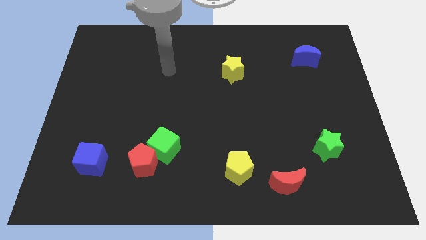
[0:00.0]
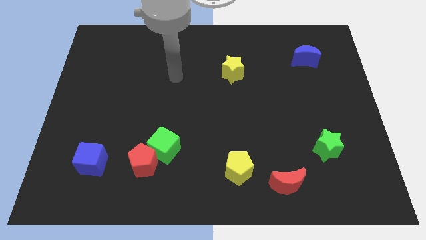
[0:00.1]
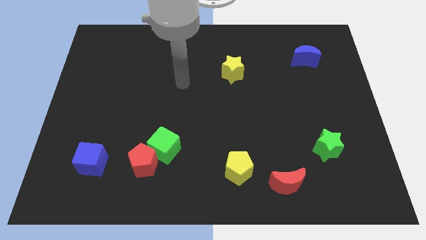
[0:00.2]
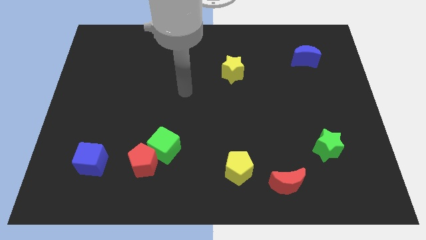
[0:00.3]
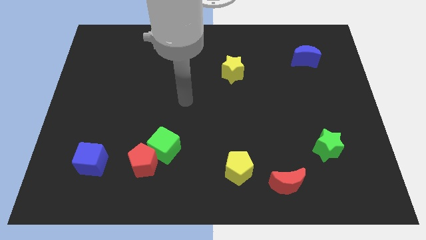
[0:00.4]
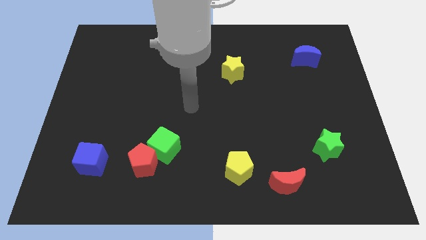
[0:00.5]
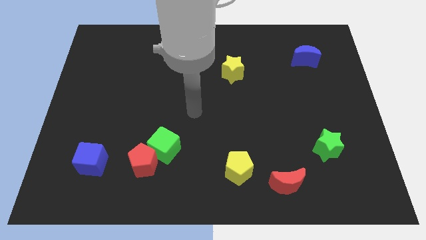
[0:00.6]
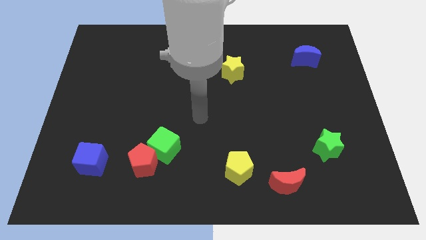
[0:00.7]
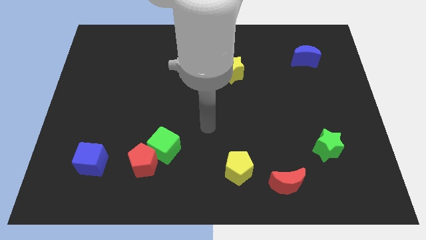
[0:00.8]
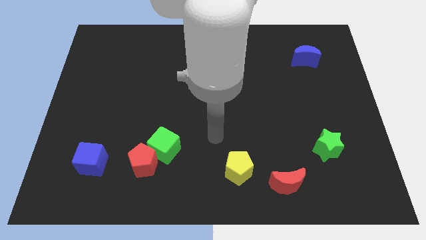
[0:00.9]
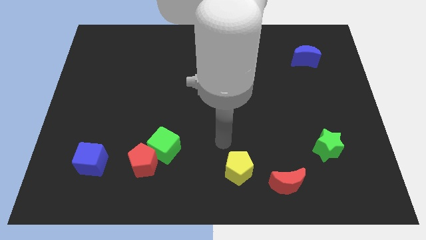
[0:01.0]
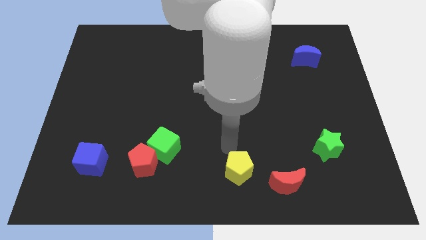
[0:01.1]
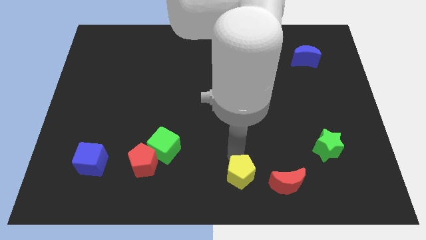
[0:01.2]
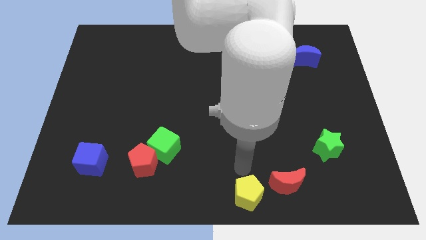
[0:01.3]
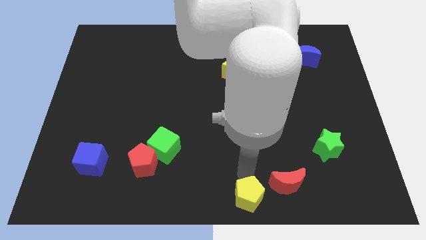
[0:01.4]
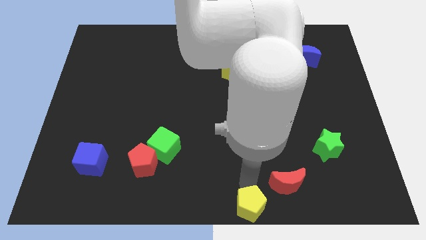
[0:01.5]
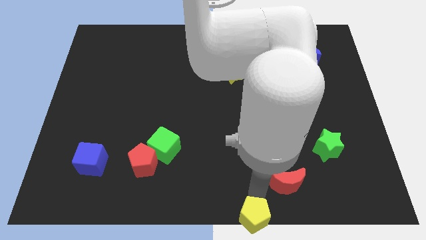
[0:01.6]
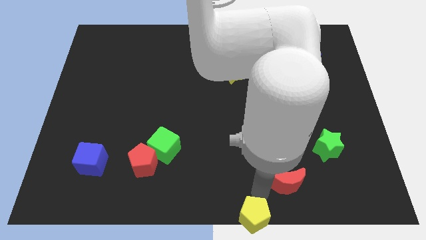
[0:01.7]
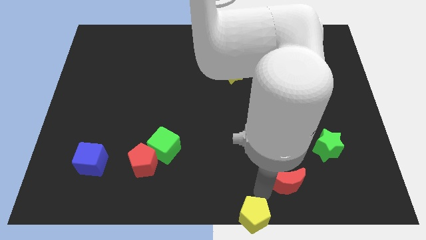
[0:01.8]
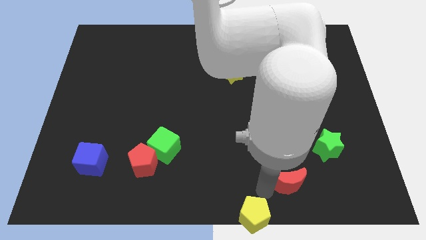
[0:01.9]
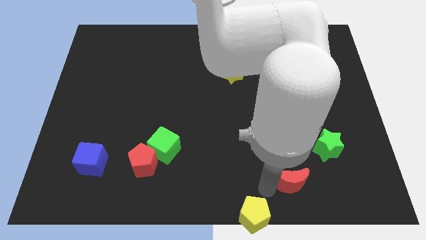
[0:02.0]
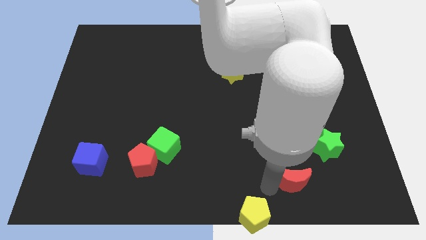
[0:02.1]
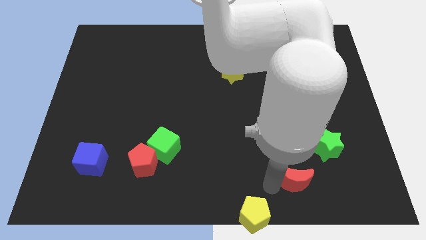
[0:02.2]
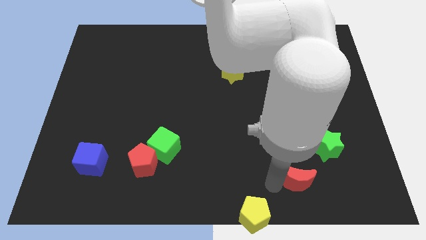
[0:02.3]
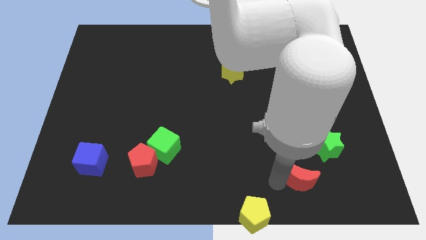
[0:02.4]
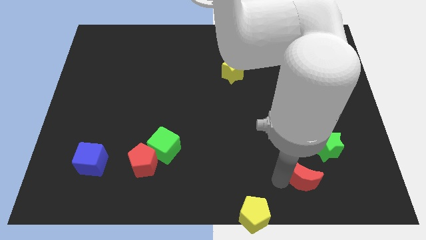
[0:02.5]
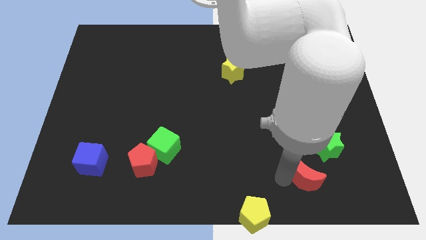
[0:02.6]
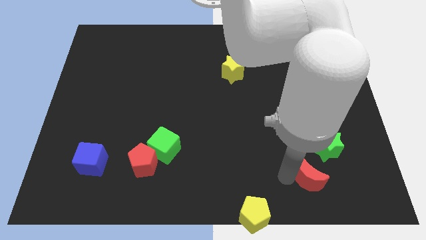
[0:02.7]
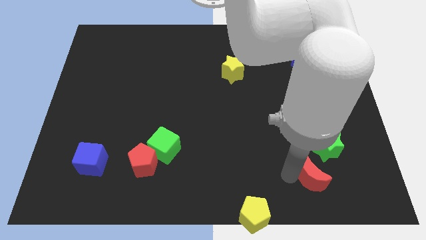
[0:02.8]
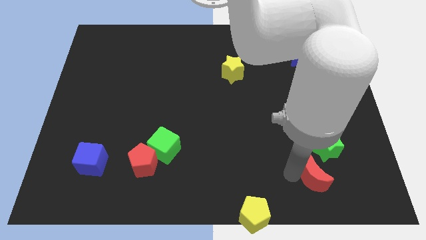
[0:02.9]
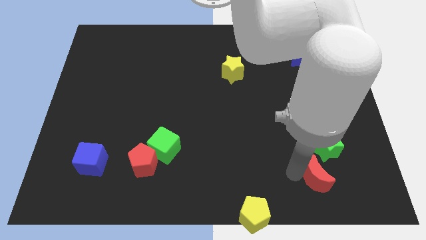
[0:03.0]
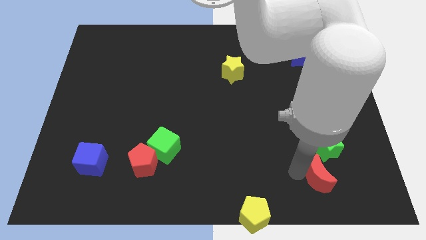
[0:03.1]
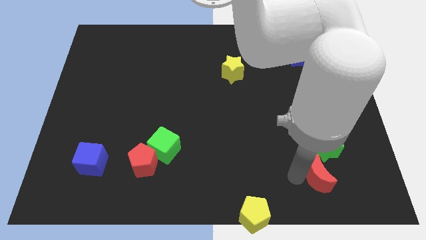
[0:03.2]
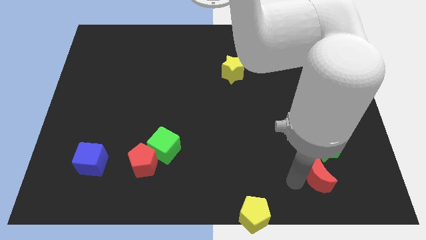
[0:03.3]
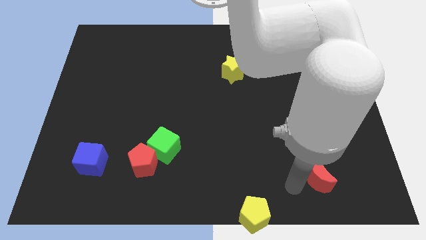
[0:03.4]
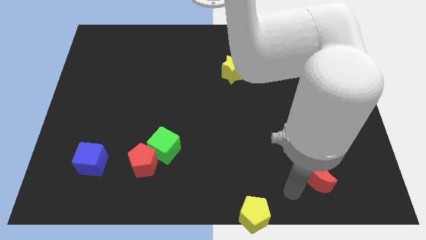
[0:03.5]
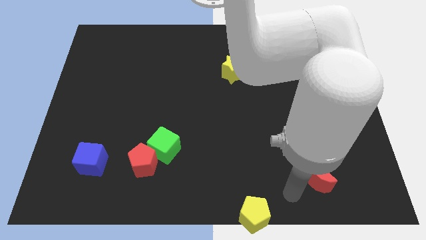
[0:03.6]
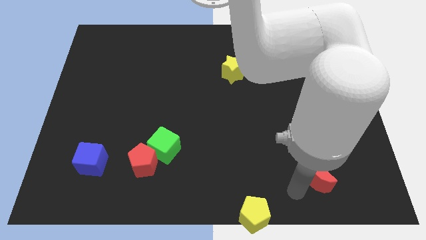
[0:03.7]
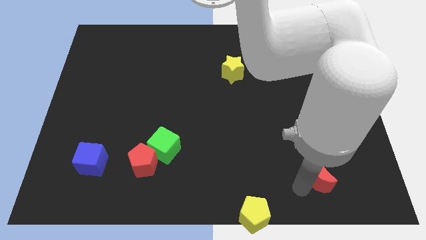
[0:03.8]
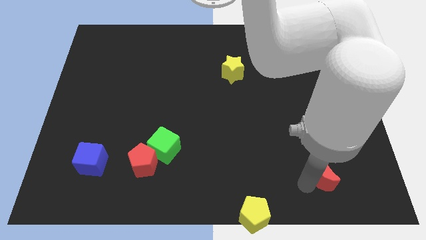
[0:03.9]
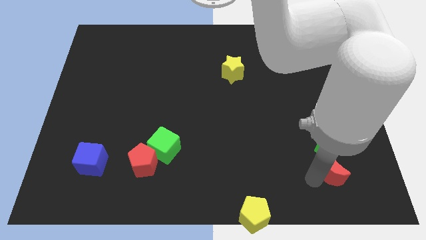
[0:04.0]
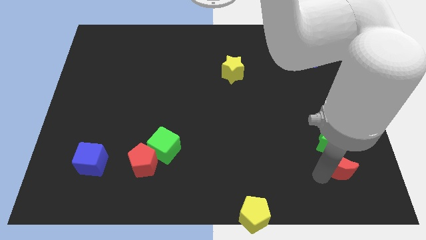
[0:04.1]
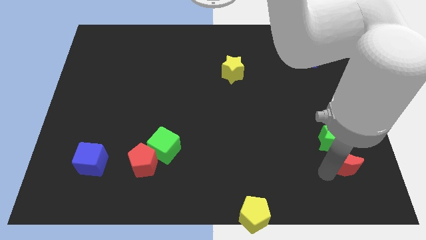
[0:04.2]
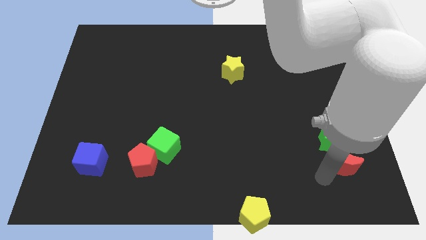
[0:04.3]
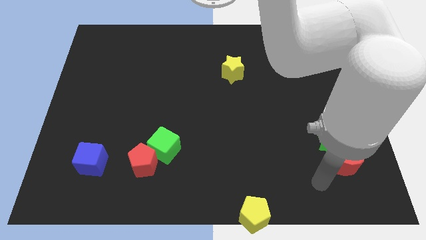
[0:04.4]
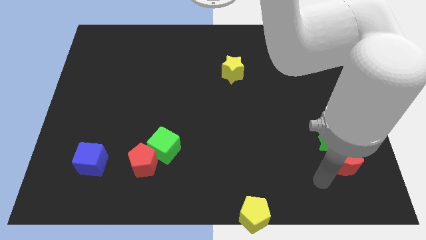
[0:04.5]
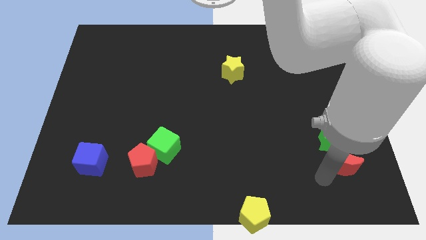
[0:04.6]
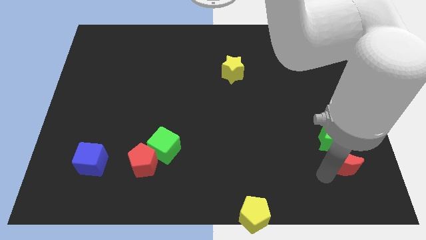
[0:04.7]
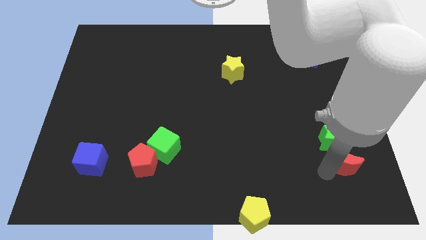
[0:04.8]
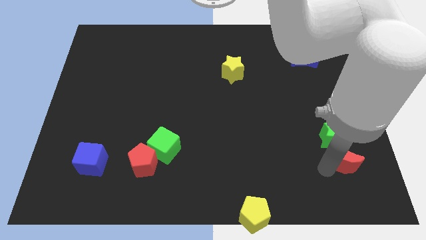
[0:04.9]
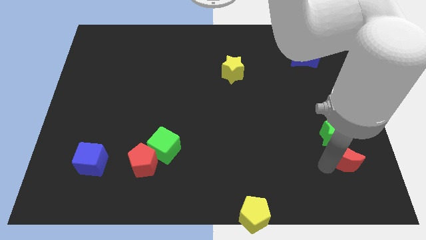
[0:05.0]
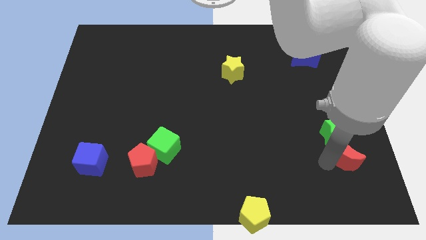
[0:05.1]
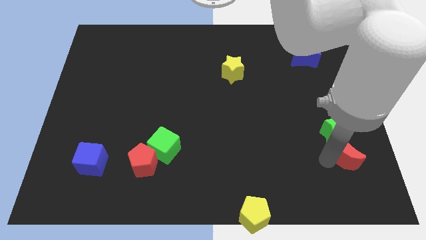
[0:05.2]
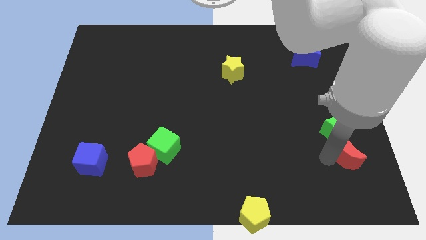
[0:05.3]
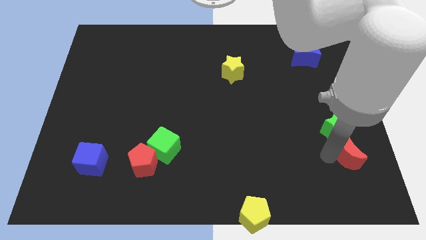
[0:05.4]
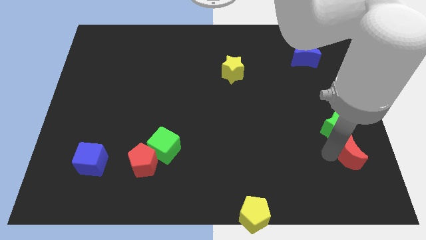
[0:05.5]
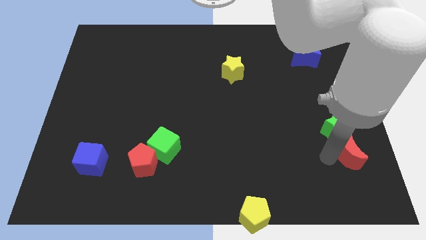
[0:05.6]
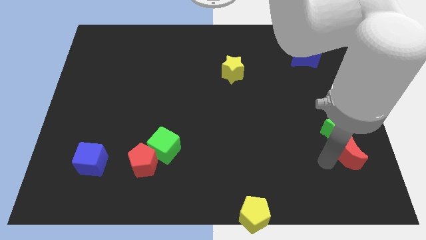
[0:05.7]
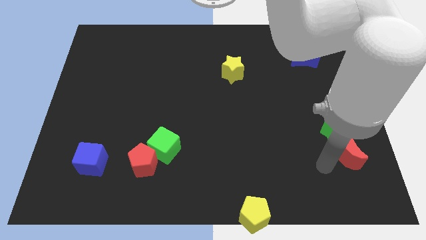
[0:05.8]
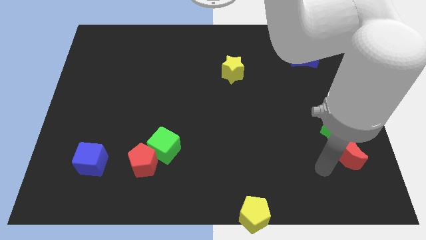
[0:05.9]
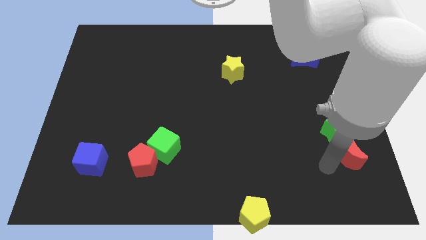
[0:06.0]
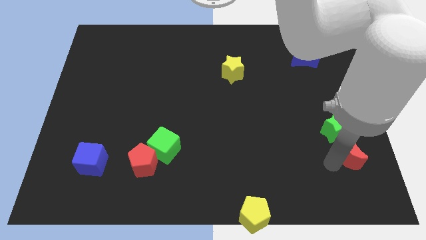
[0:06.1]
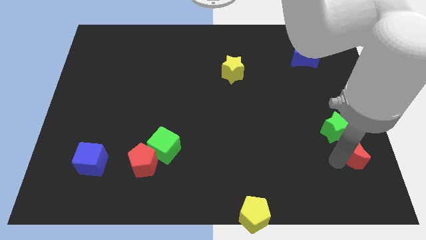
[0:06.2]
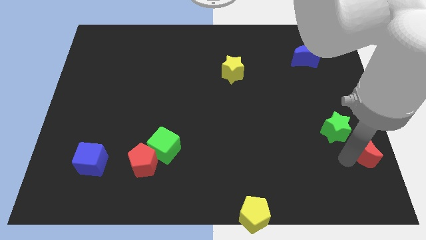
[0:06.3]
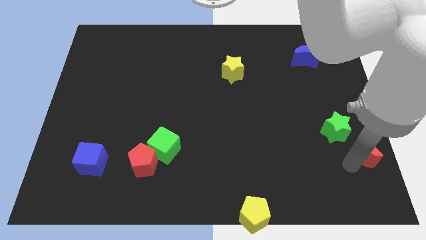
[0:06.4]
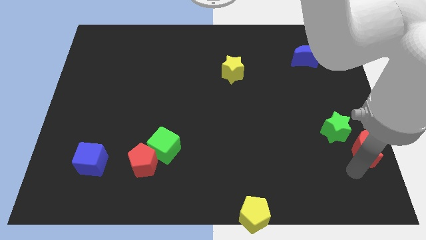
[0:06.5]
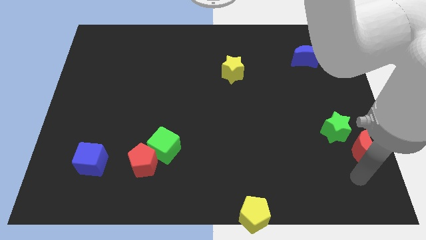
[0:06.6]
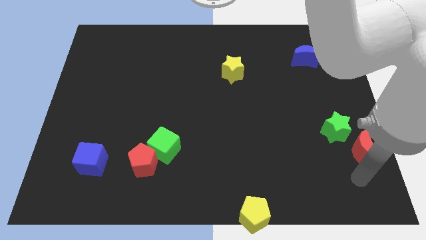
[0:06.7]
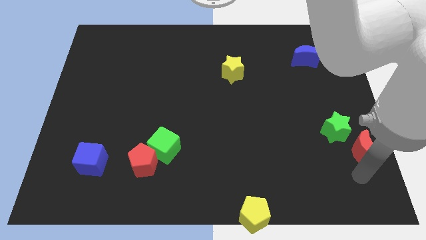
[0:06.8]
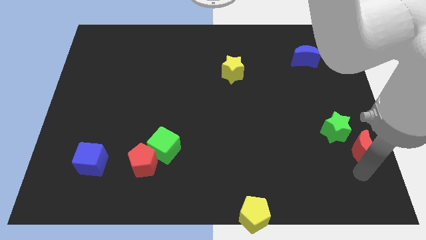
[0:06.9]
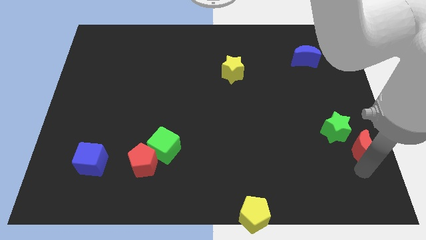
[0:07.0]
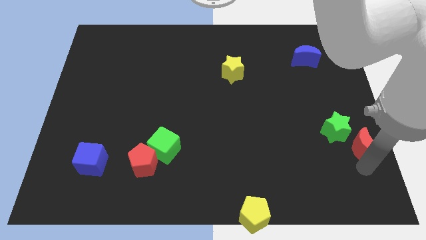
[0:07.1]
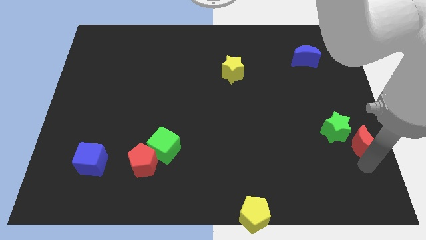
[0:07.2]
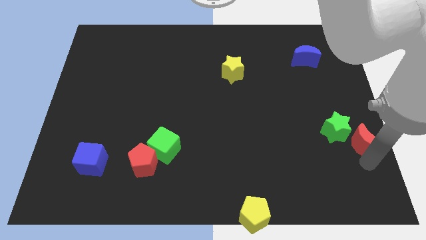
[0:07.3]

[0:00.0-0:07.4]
slide the red moon to the center right

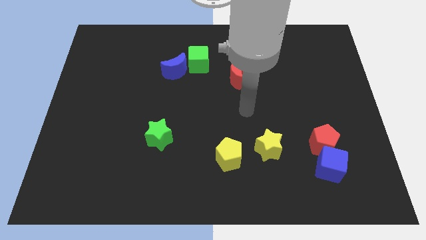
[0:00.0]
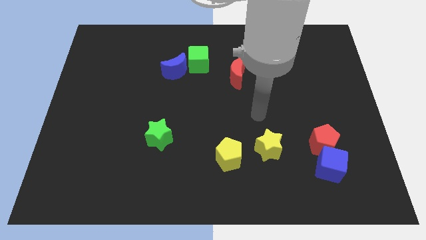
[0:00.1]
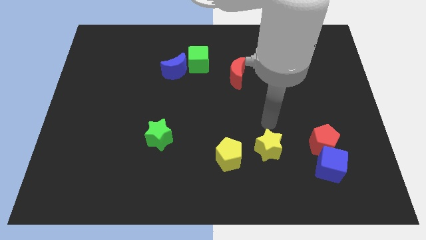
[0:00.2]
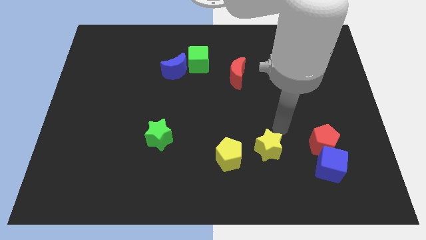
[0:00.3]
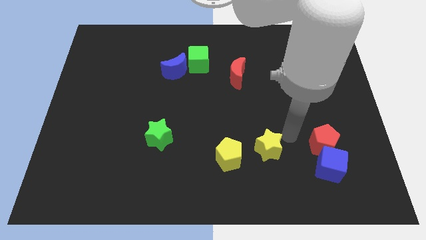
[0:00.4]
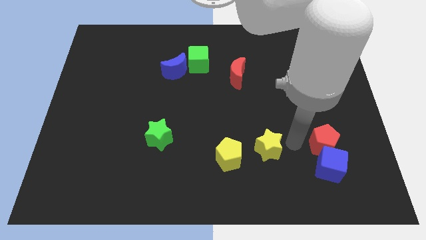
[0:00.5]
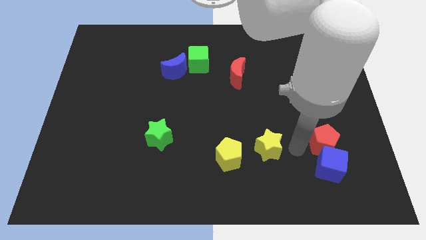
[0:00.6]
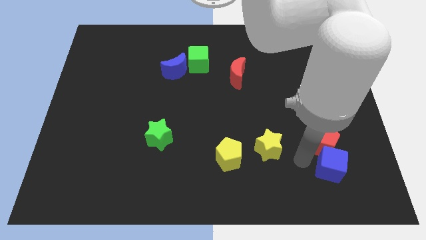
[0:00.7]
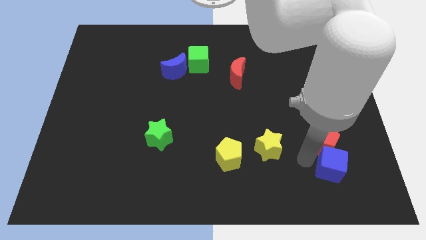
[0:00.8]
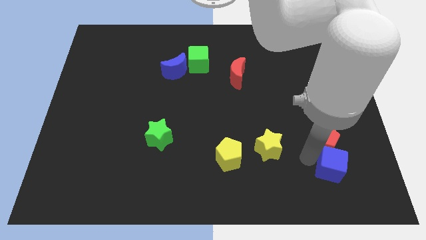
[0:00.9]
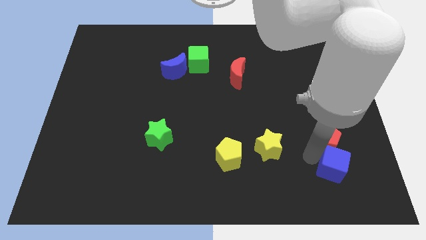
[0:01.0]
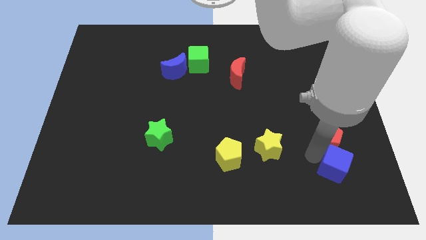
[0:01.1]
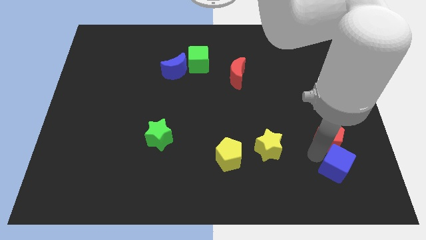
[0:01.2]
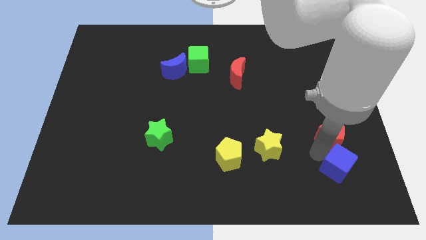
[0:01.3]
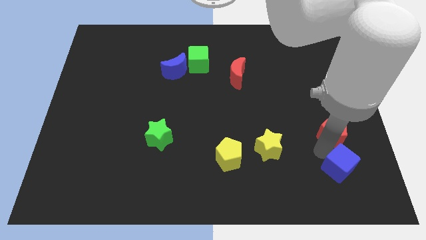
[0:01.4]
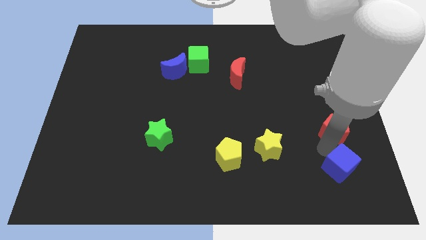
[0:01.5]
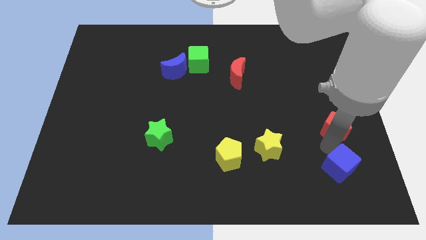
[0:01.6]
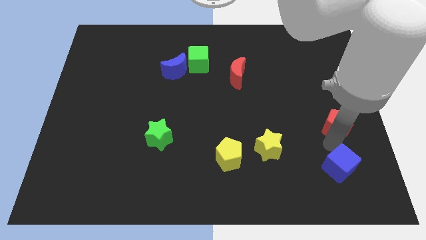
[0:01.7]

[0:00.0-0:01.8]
move the red pentagon to the right side of the board
